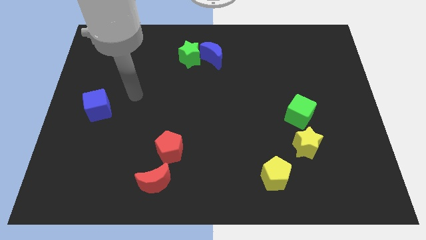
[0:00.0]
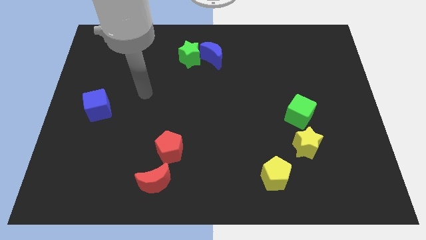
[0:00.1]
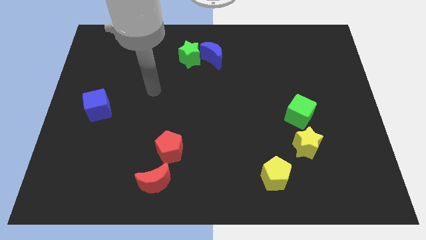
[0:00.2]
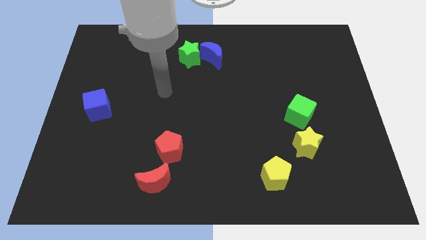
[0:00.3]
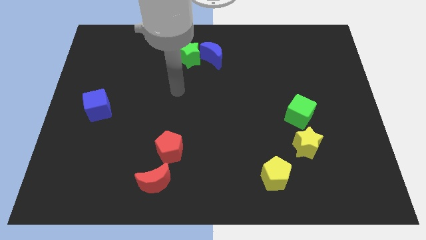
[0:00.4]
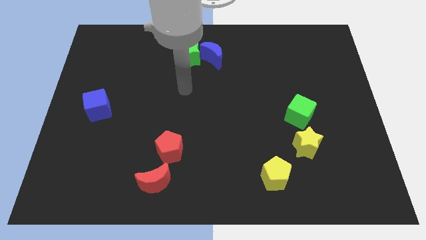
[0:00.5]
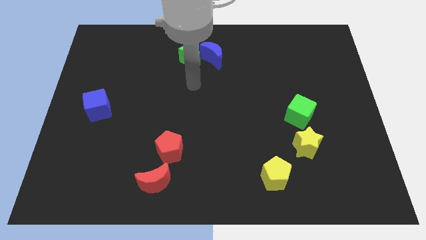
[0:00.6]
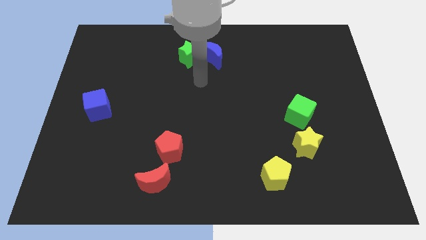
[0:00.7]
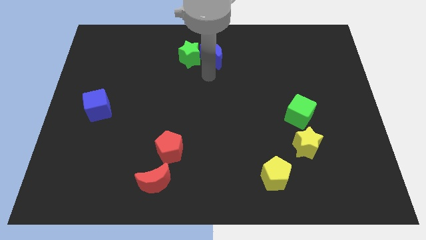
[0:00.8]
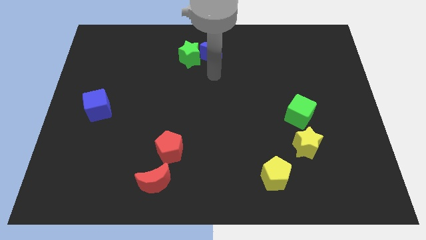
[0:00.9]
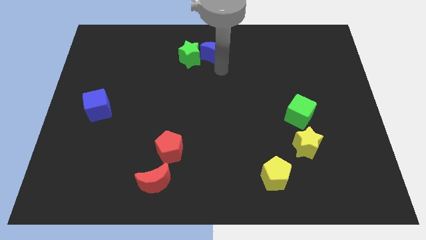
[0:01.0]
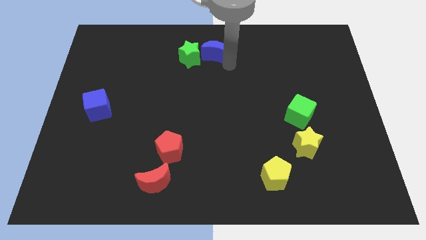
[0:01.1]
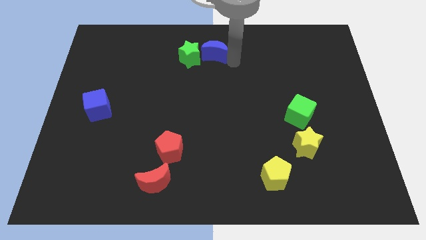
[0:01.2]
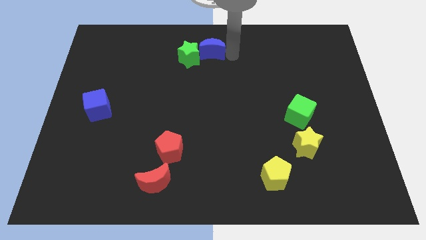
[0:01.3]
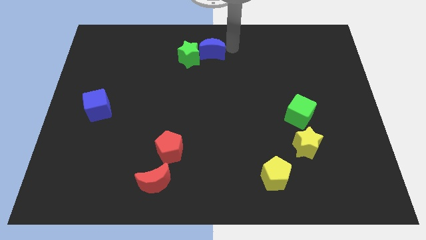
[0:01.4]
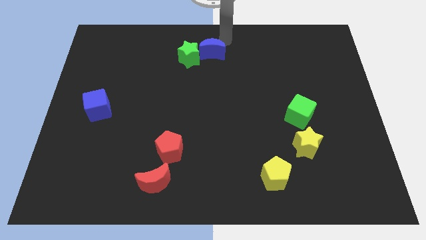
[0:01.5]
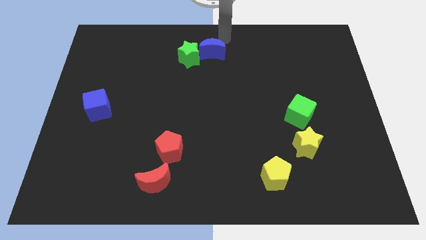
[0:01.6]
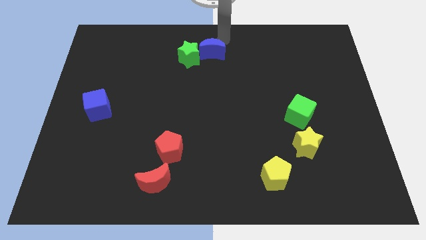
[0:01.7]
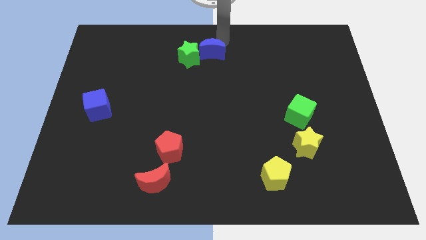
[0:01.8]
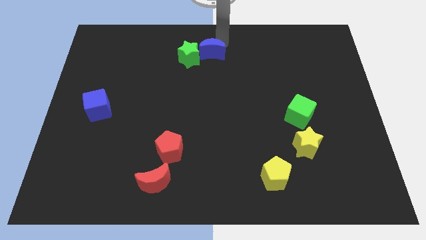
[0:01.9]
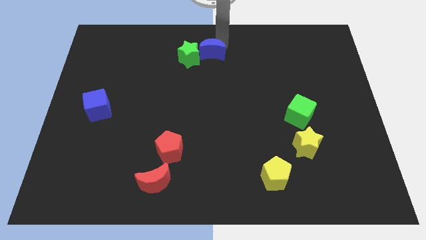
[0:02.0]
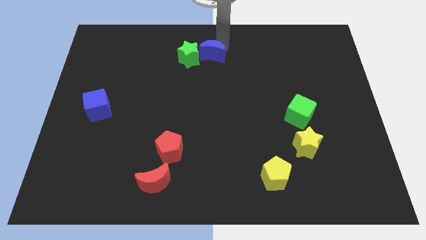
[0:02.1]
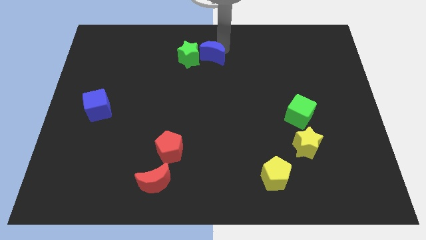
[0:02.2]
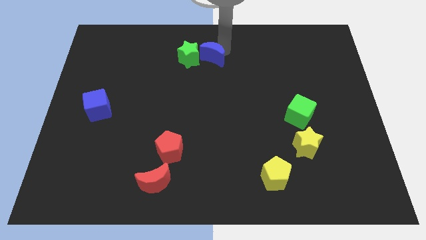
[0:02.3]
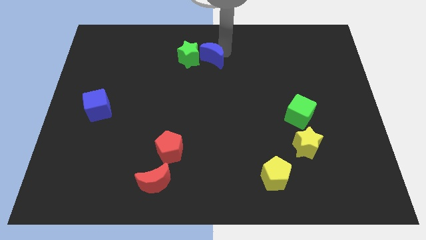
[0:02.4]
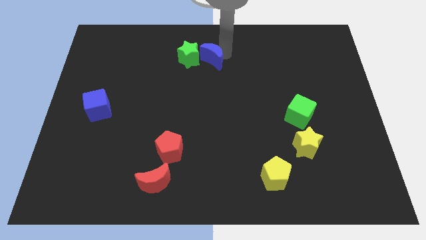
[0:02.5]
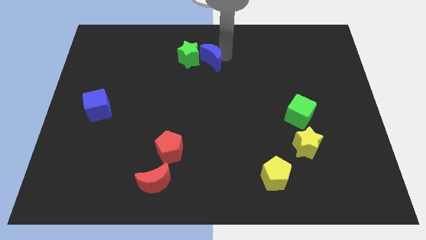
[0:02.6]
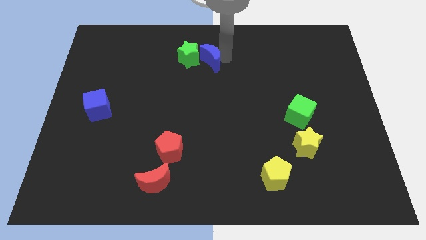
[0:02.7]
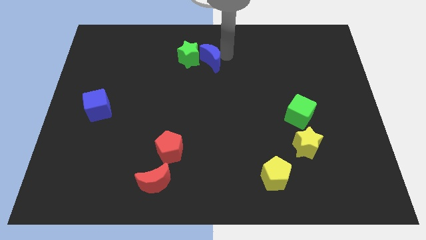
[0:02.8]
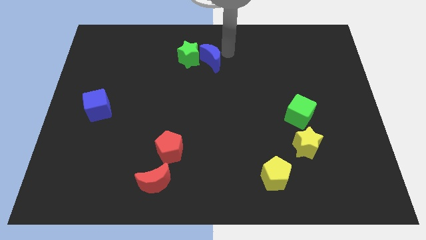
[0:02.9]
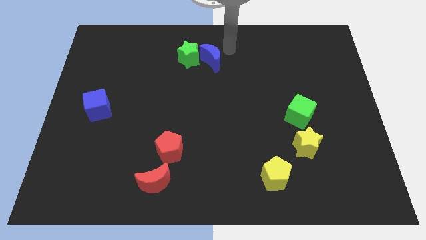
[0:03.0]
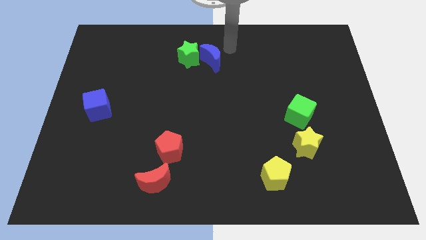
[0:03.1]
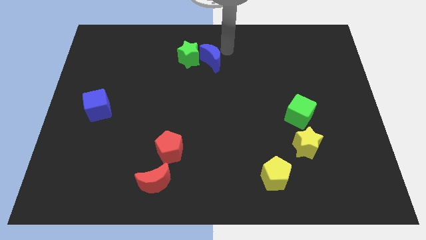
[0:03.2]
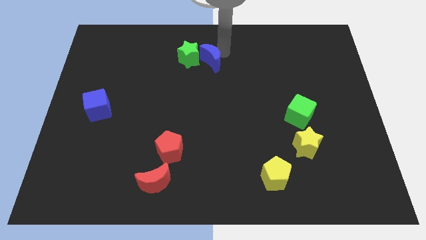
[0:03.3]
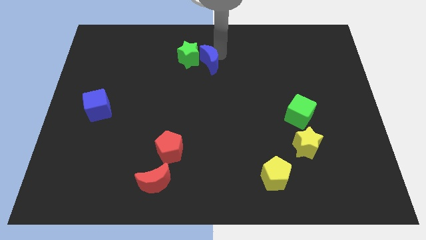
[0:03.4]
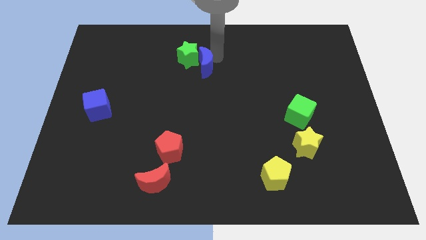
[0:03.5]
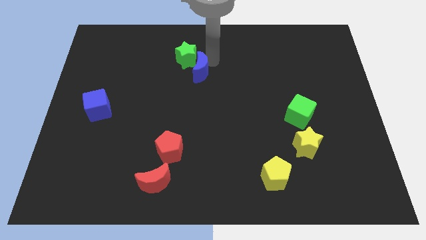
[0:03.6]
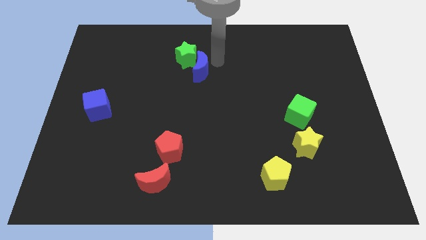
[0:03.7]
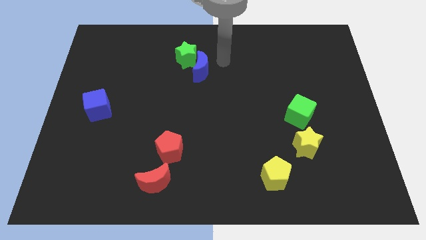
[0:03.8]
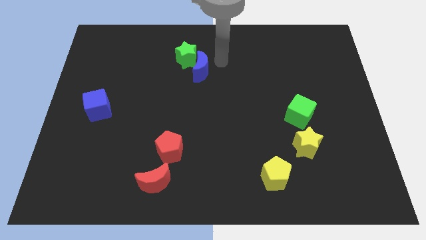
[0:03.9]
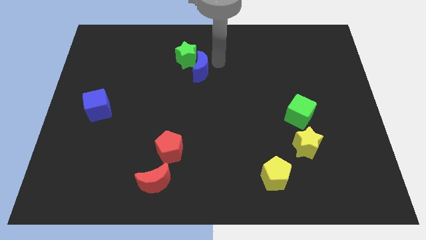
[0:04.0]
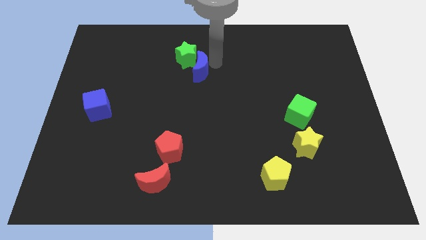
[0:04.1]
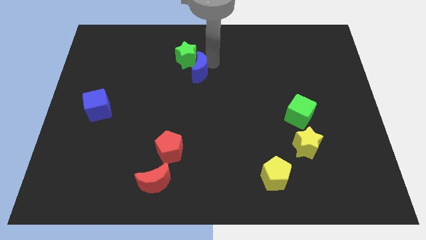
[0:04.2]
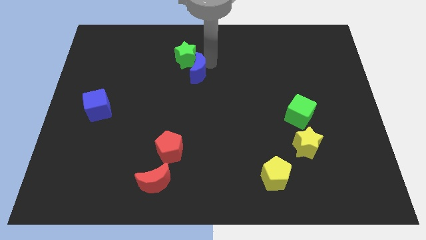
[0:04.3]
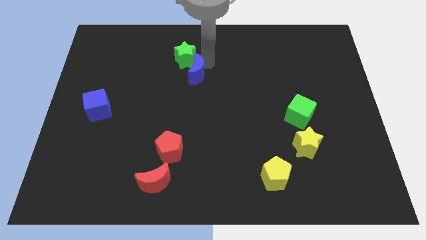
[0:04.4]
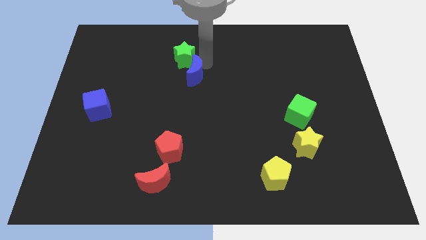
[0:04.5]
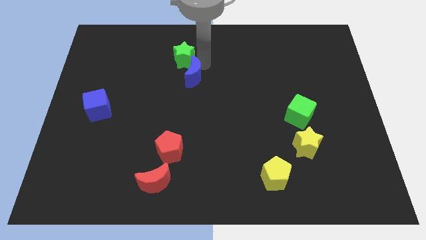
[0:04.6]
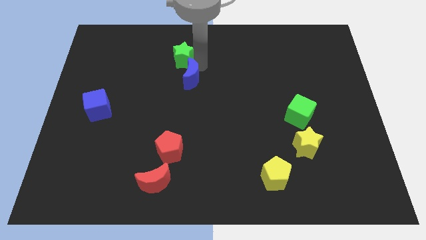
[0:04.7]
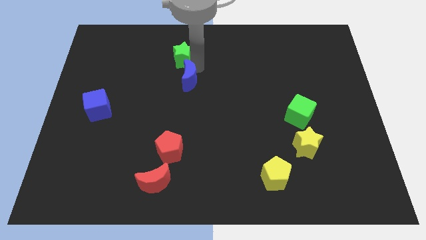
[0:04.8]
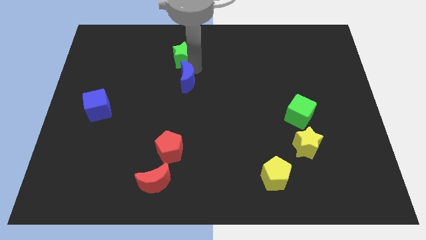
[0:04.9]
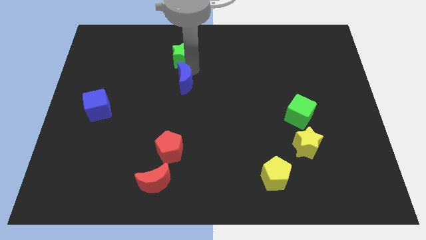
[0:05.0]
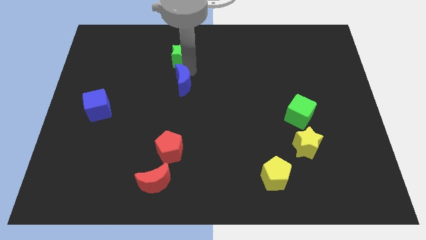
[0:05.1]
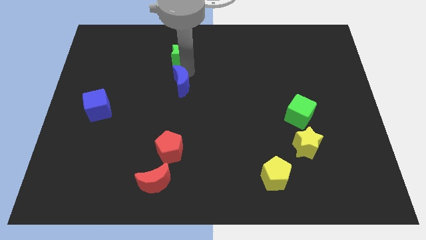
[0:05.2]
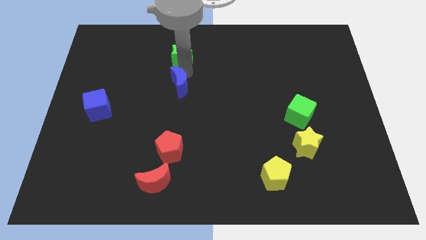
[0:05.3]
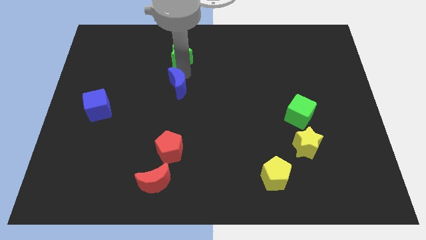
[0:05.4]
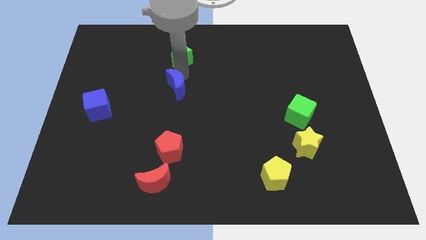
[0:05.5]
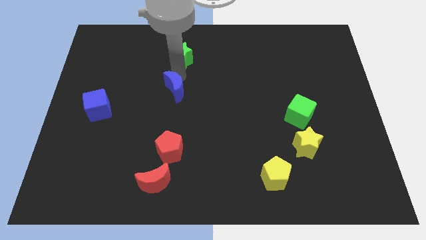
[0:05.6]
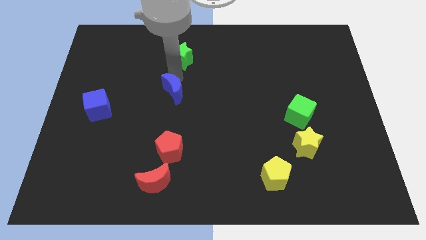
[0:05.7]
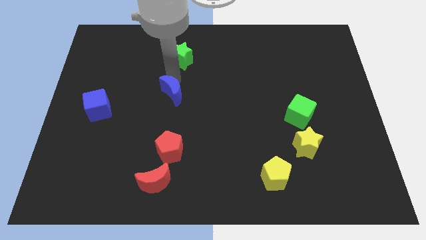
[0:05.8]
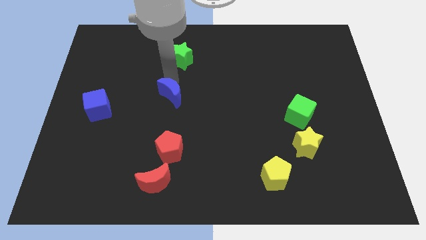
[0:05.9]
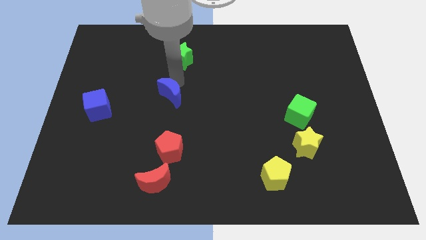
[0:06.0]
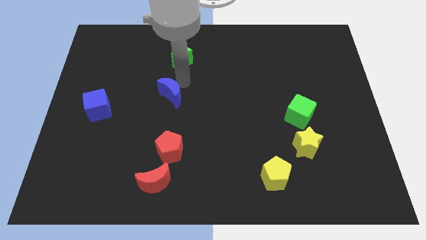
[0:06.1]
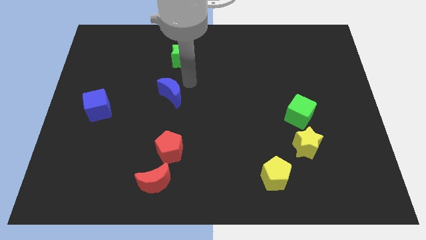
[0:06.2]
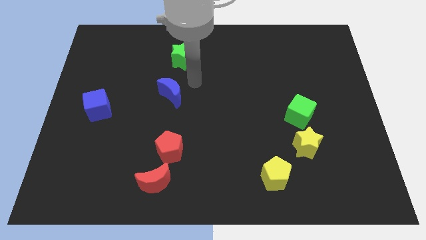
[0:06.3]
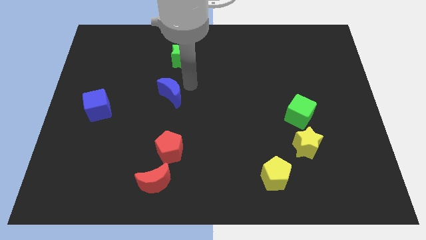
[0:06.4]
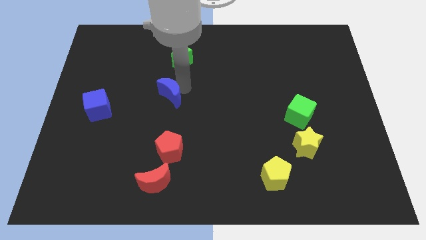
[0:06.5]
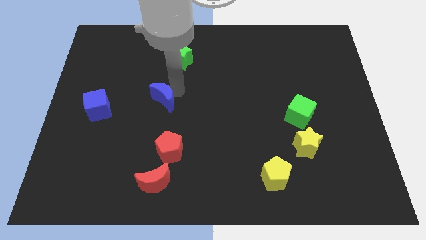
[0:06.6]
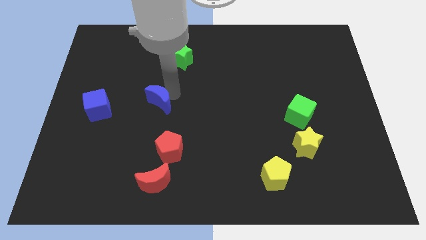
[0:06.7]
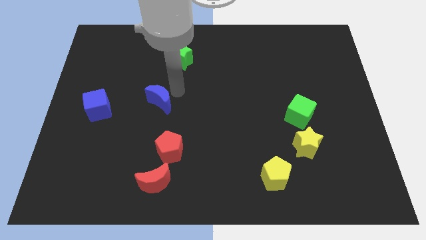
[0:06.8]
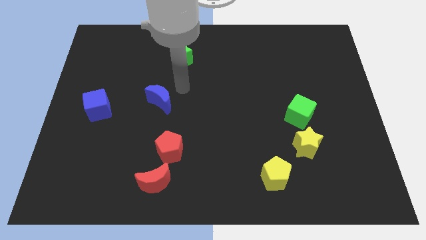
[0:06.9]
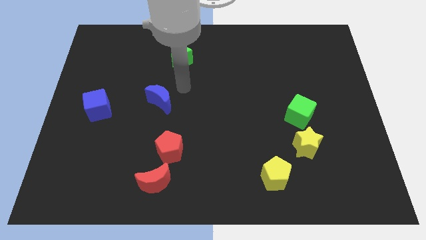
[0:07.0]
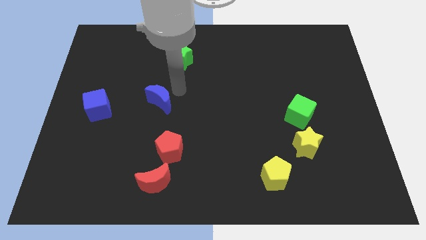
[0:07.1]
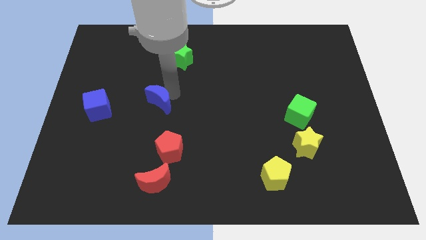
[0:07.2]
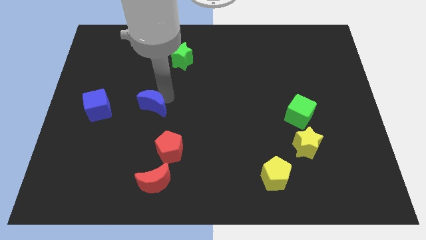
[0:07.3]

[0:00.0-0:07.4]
move the blue moon diagonally down and to the left

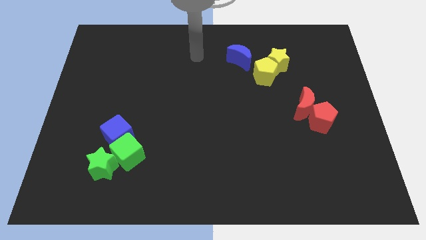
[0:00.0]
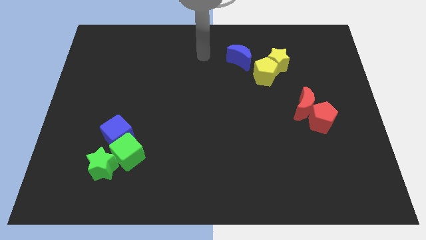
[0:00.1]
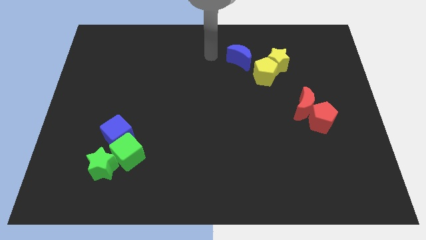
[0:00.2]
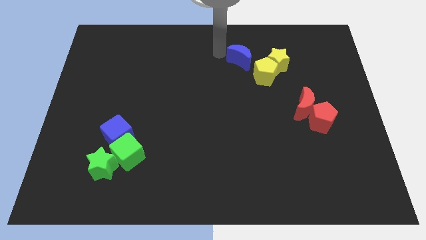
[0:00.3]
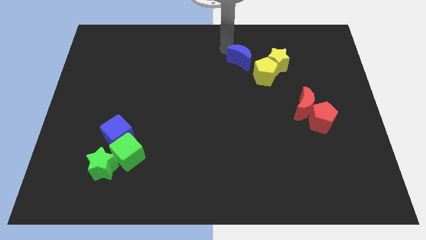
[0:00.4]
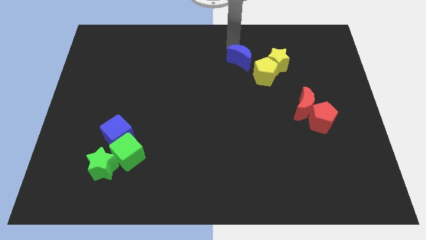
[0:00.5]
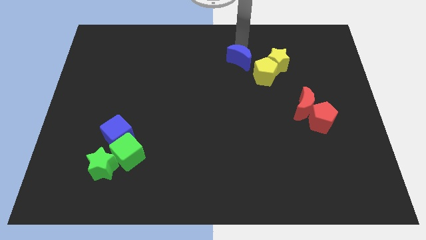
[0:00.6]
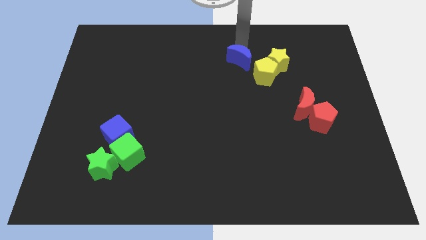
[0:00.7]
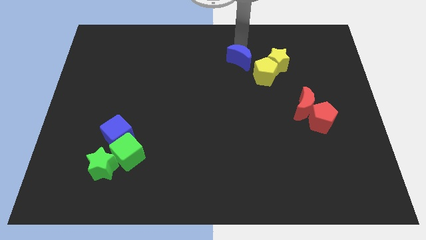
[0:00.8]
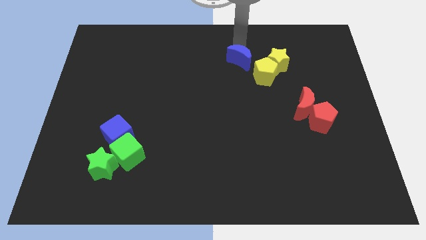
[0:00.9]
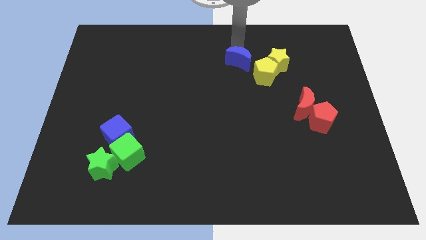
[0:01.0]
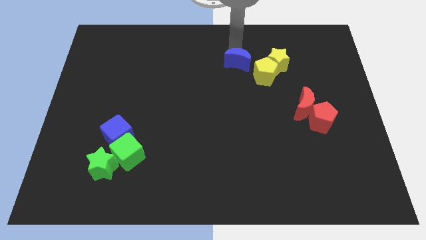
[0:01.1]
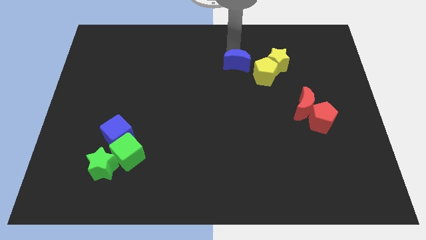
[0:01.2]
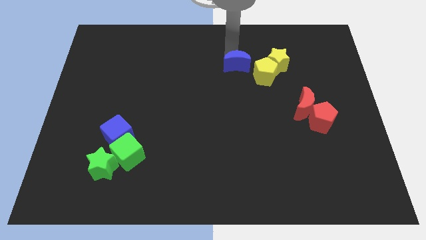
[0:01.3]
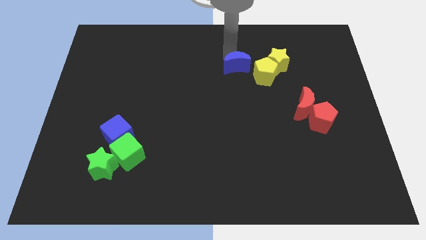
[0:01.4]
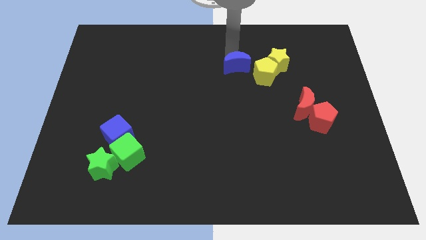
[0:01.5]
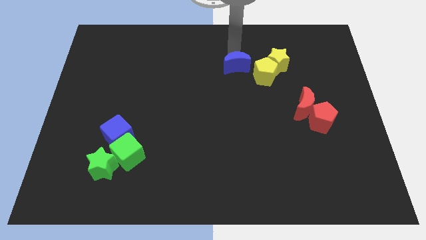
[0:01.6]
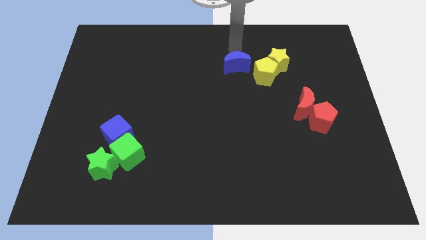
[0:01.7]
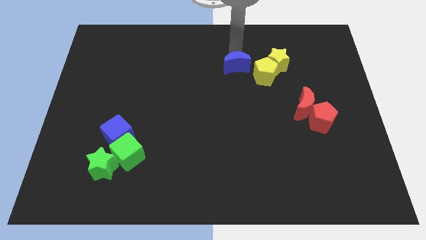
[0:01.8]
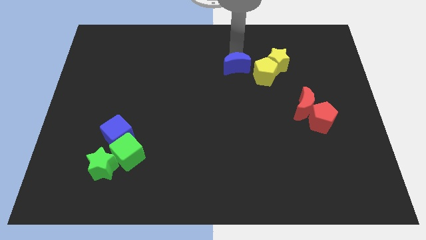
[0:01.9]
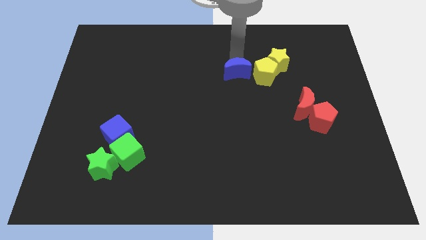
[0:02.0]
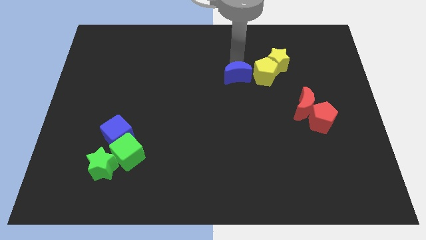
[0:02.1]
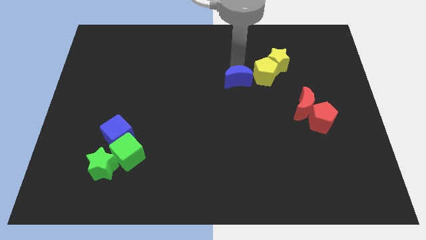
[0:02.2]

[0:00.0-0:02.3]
push the blue moon a little downwards
